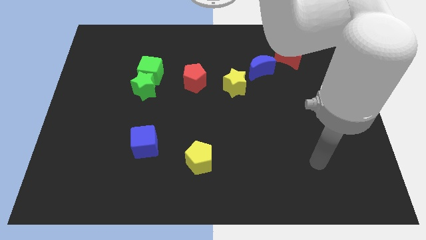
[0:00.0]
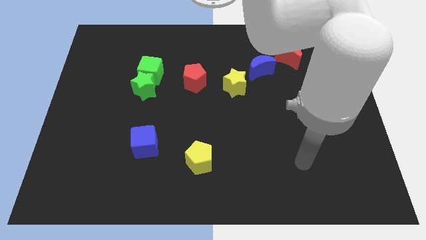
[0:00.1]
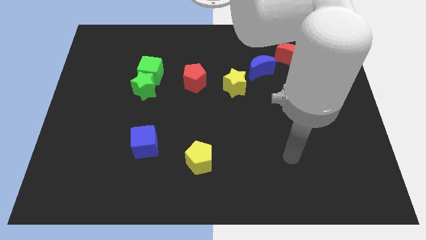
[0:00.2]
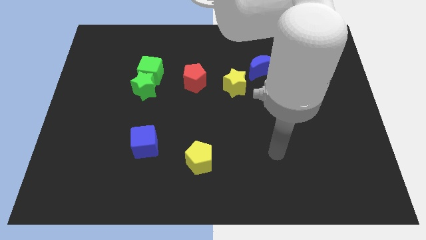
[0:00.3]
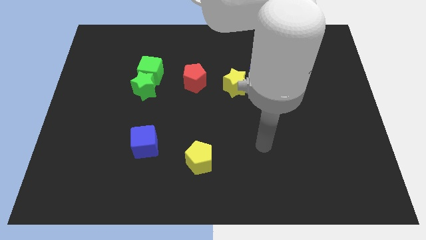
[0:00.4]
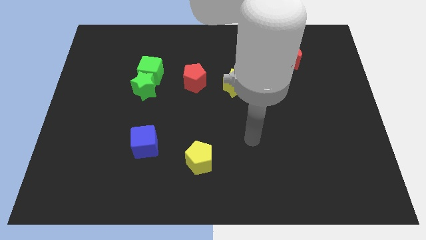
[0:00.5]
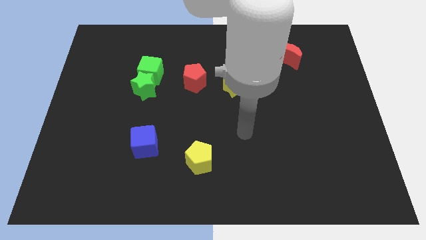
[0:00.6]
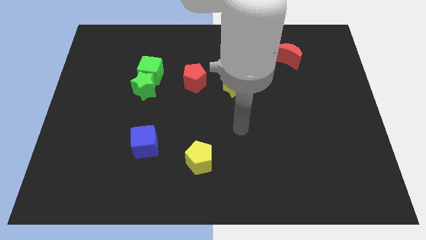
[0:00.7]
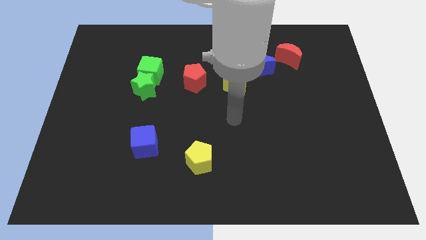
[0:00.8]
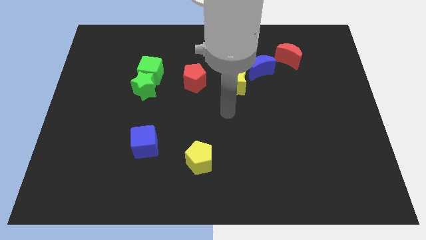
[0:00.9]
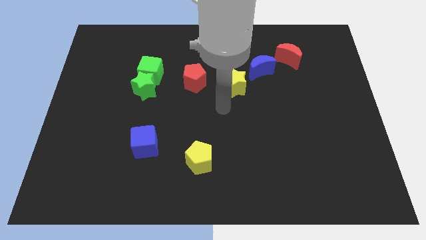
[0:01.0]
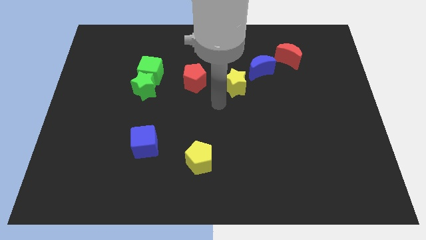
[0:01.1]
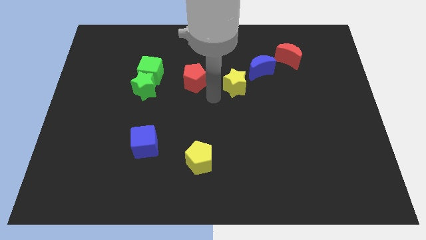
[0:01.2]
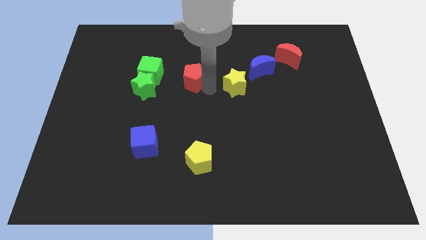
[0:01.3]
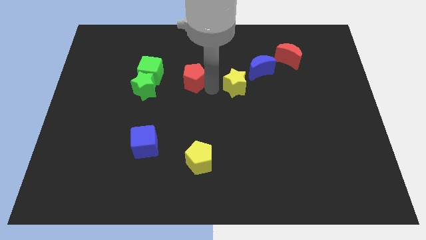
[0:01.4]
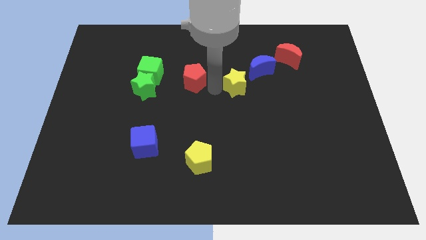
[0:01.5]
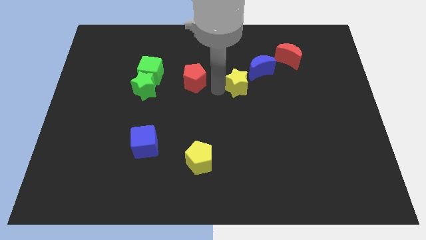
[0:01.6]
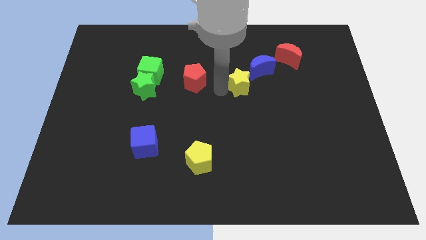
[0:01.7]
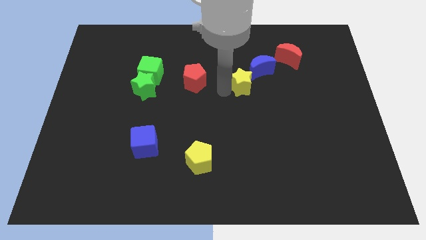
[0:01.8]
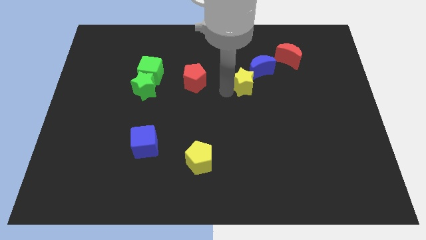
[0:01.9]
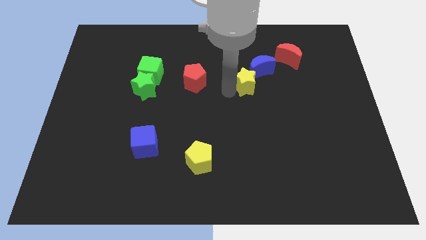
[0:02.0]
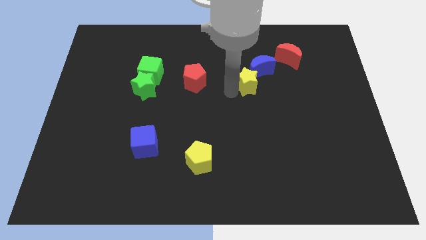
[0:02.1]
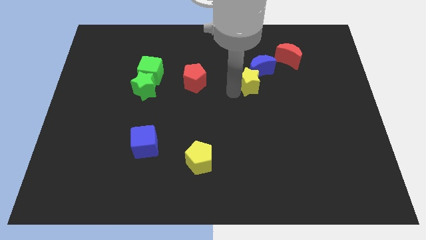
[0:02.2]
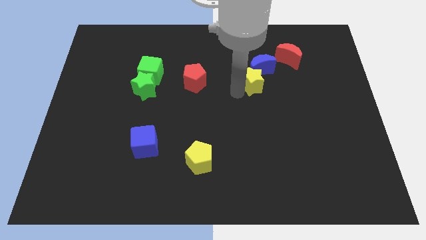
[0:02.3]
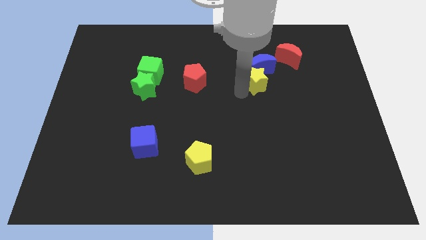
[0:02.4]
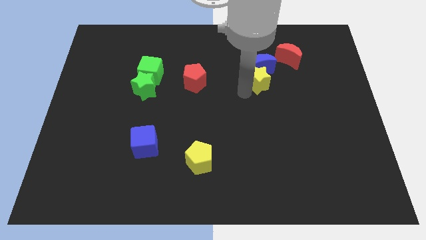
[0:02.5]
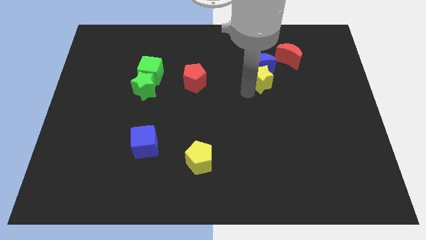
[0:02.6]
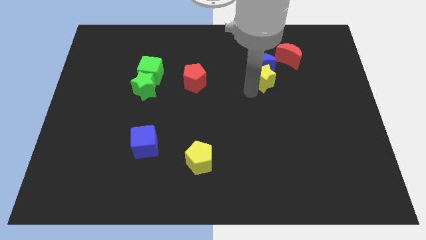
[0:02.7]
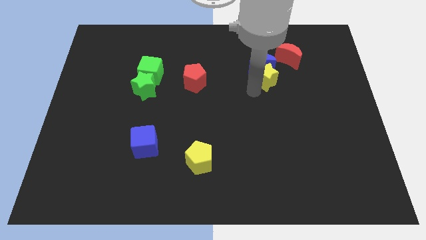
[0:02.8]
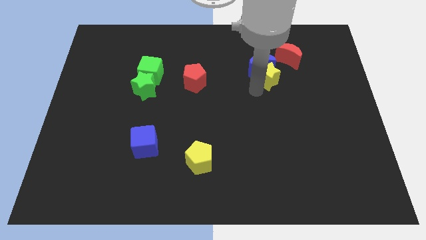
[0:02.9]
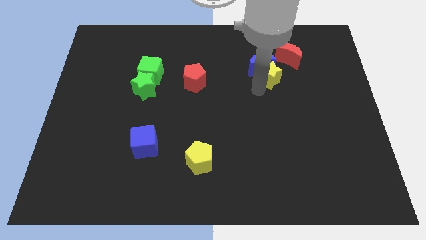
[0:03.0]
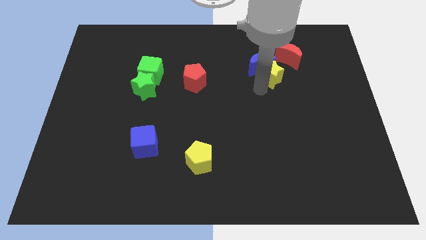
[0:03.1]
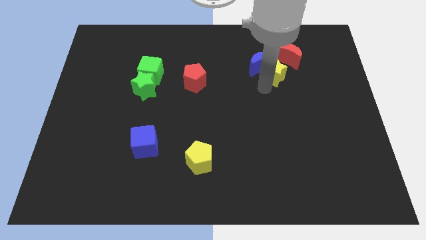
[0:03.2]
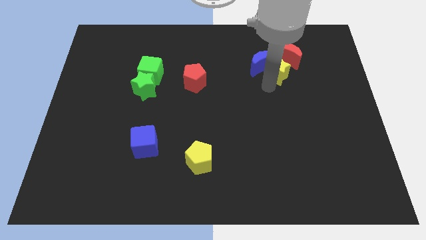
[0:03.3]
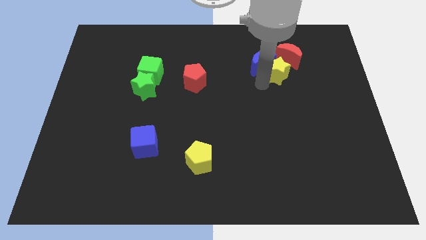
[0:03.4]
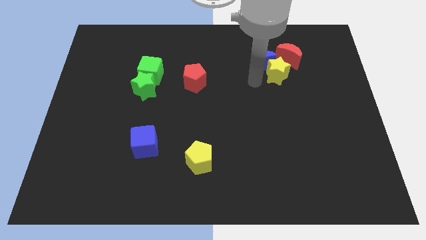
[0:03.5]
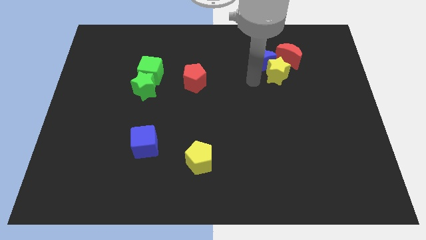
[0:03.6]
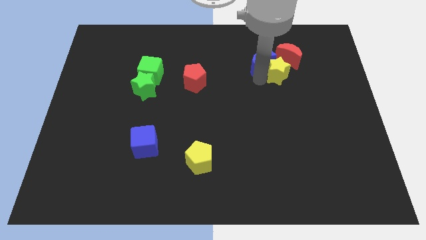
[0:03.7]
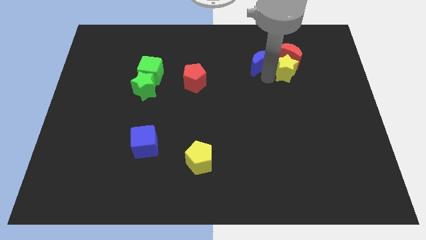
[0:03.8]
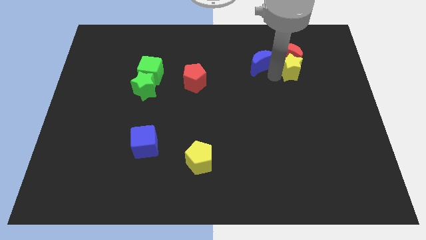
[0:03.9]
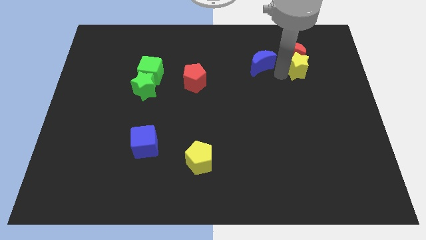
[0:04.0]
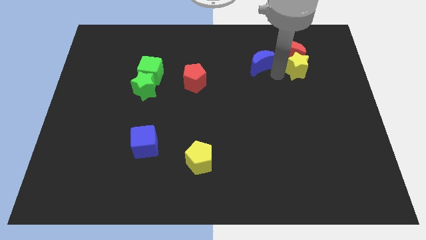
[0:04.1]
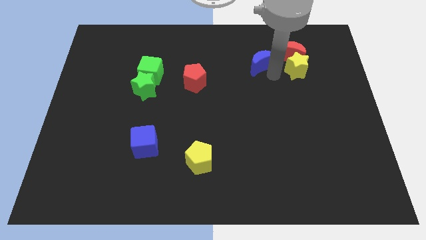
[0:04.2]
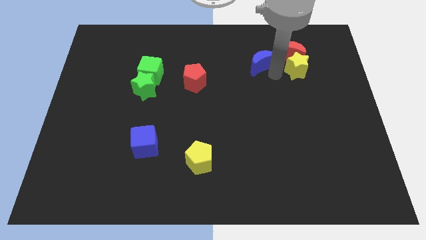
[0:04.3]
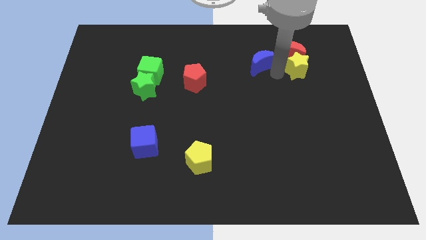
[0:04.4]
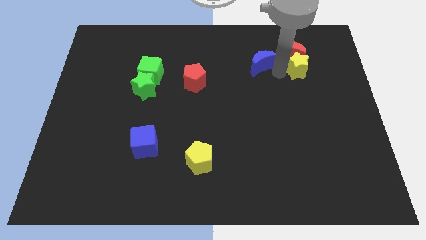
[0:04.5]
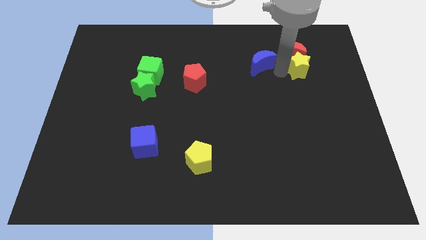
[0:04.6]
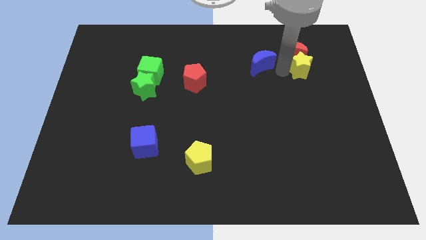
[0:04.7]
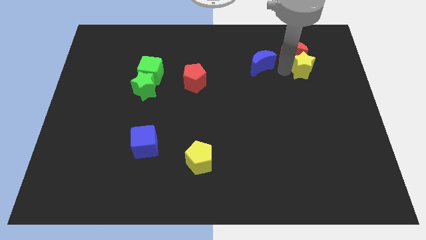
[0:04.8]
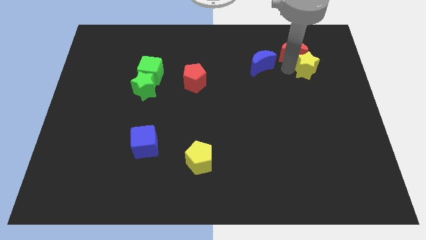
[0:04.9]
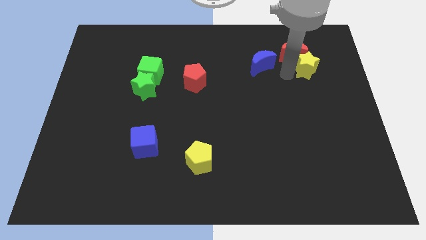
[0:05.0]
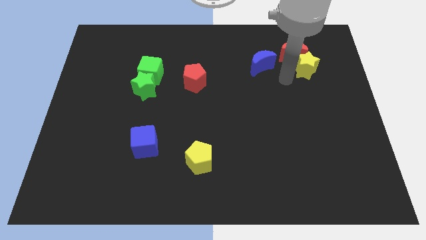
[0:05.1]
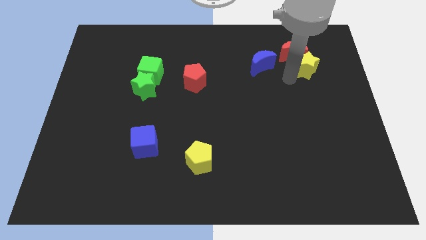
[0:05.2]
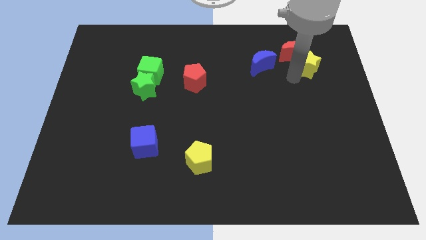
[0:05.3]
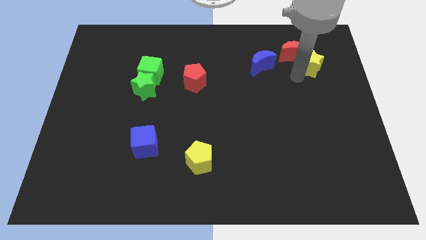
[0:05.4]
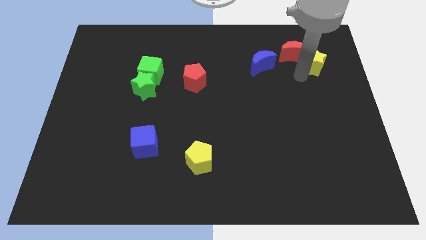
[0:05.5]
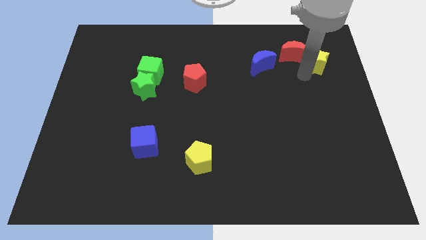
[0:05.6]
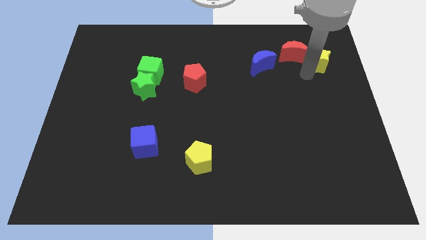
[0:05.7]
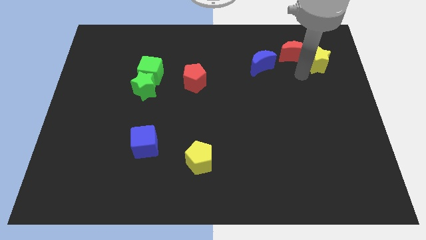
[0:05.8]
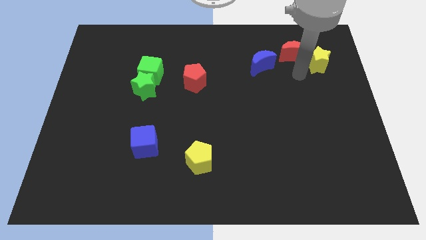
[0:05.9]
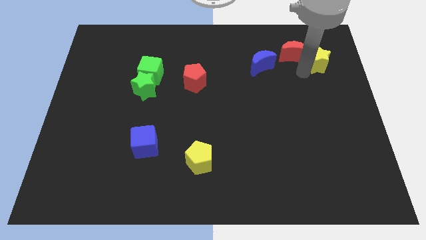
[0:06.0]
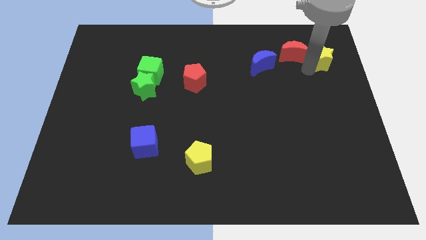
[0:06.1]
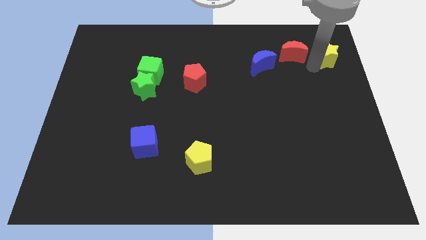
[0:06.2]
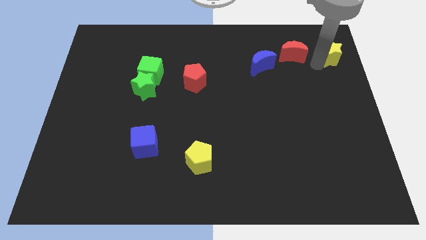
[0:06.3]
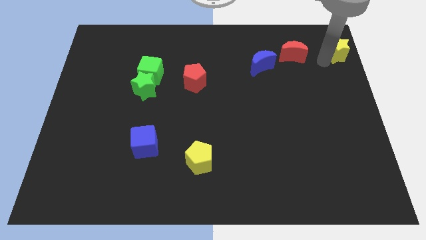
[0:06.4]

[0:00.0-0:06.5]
push the yellow star to the top right corner
